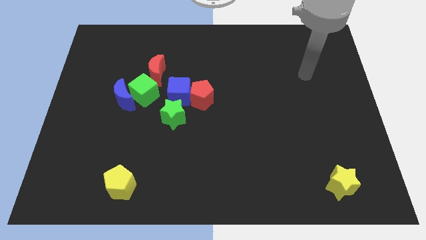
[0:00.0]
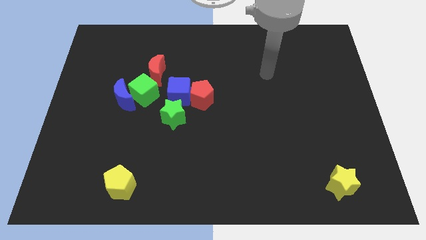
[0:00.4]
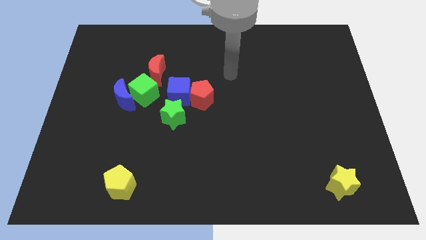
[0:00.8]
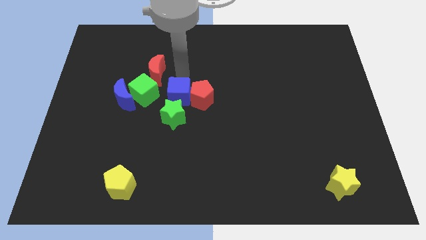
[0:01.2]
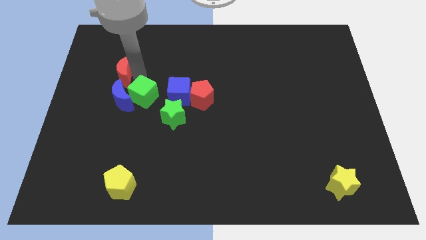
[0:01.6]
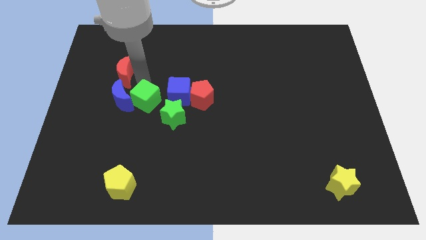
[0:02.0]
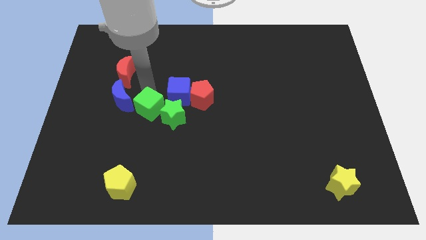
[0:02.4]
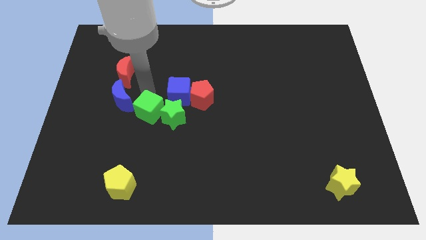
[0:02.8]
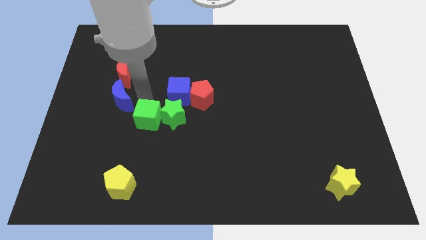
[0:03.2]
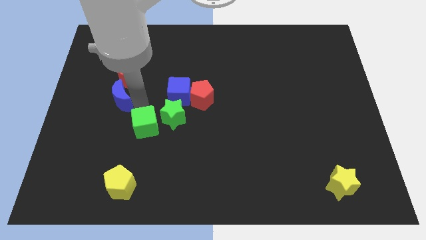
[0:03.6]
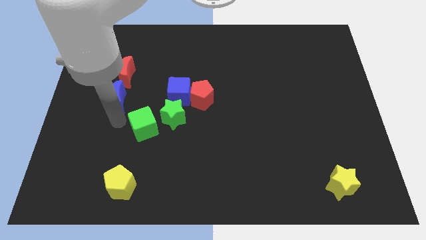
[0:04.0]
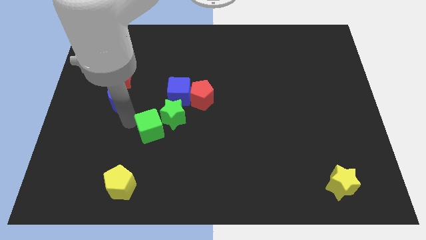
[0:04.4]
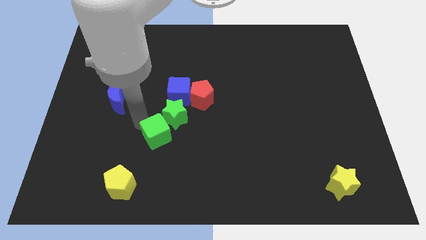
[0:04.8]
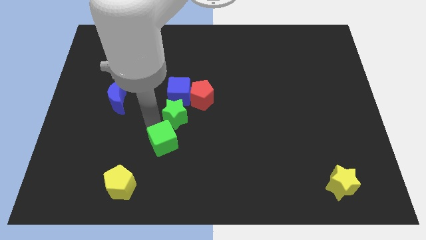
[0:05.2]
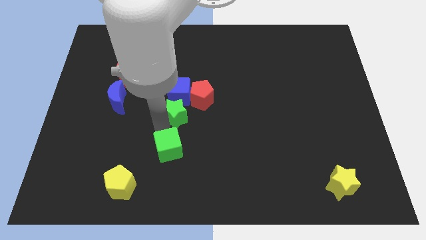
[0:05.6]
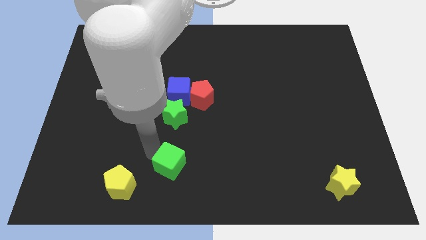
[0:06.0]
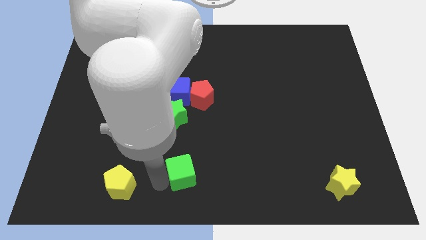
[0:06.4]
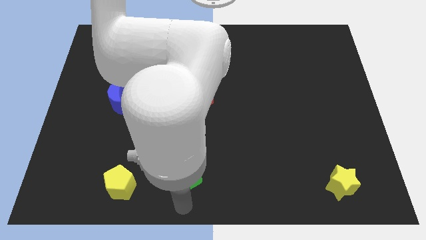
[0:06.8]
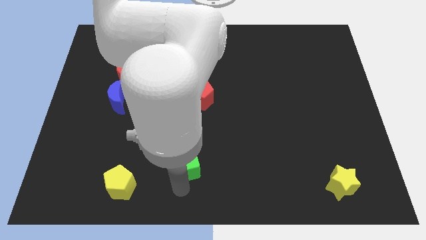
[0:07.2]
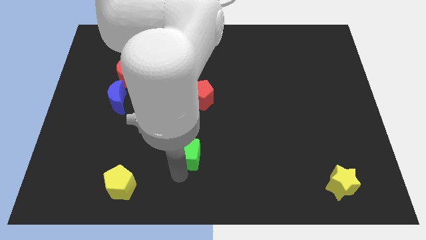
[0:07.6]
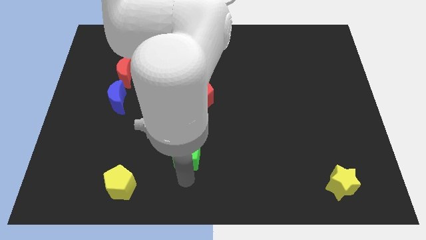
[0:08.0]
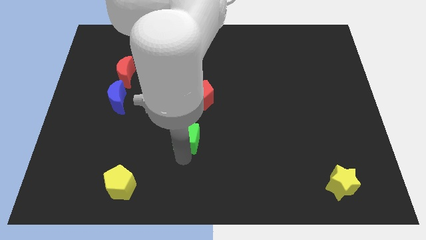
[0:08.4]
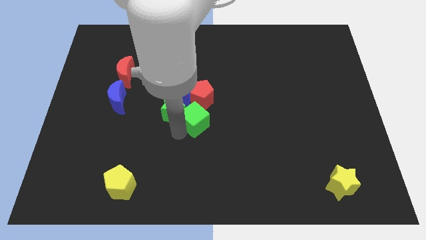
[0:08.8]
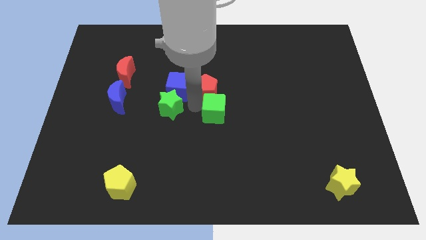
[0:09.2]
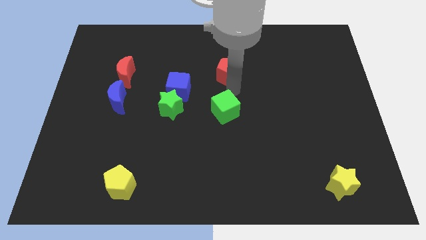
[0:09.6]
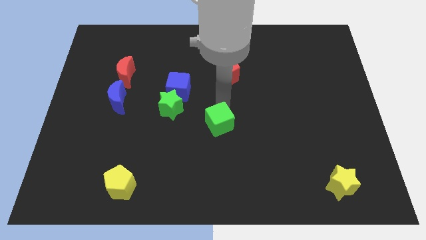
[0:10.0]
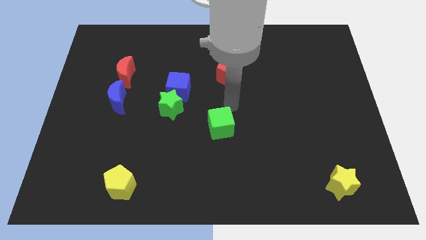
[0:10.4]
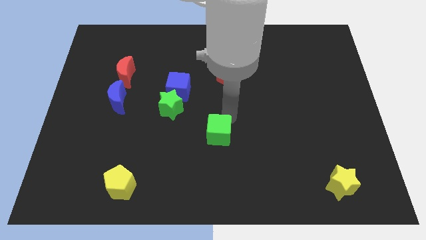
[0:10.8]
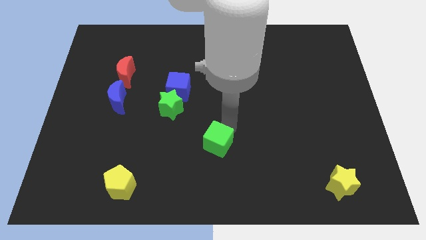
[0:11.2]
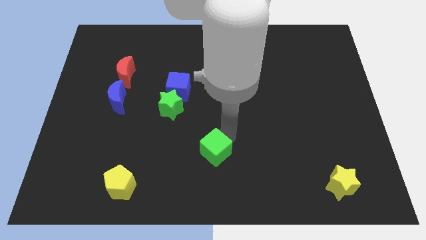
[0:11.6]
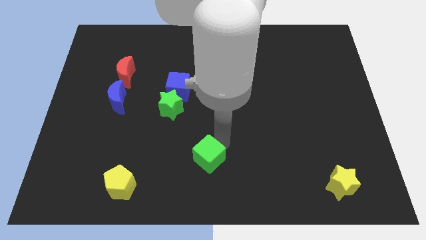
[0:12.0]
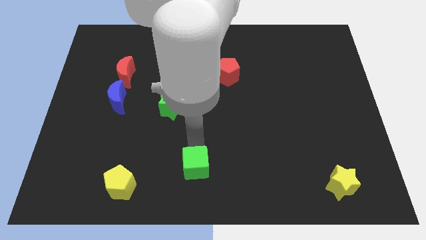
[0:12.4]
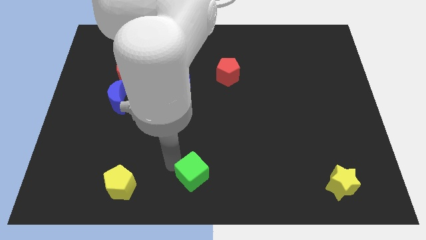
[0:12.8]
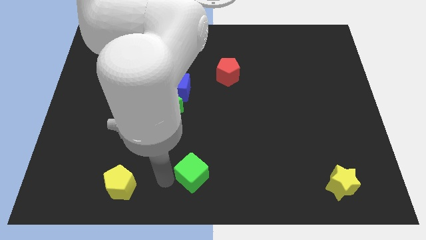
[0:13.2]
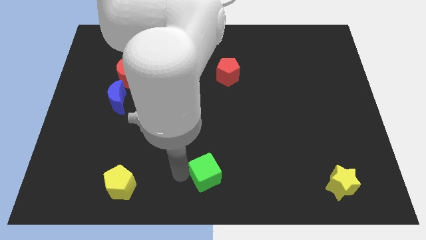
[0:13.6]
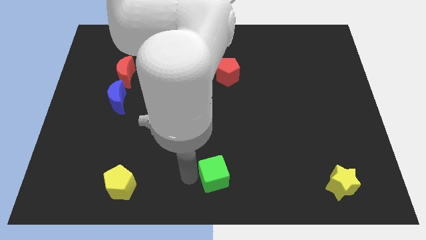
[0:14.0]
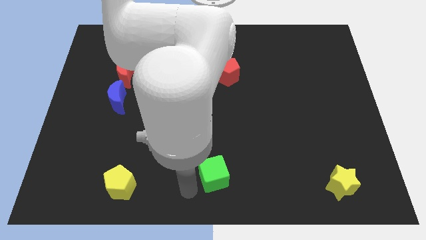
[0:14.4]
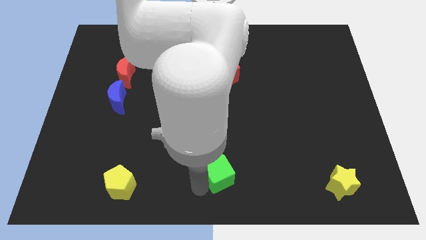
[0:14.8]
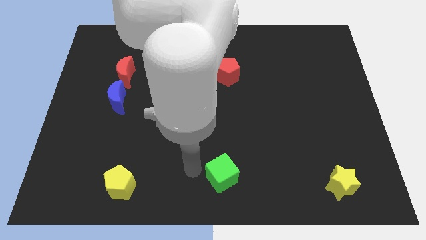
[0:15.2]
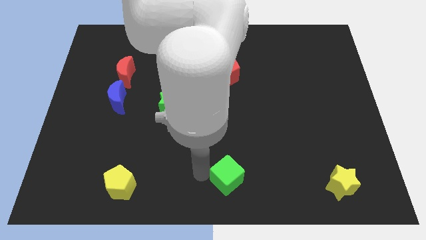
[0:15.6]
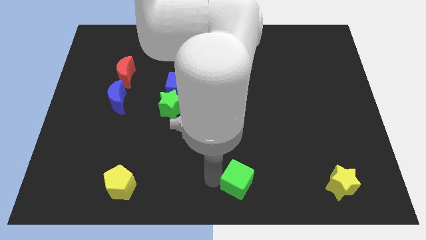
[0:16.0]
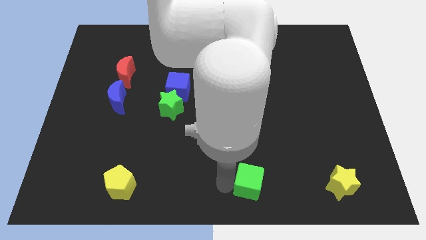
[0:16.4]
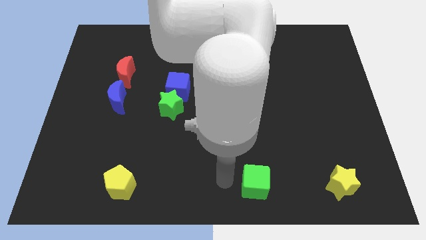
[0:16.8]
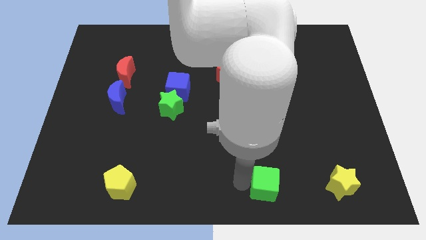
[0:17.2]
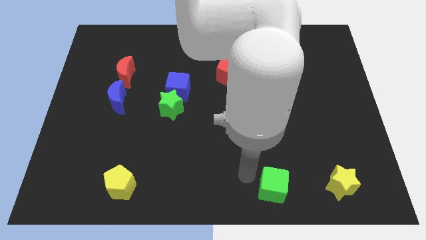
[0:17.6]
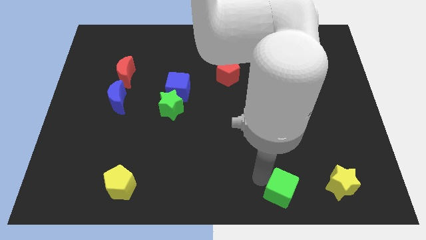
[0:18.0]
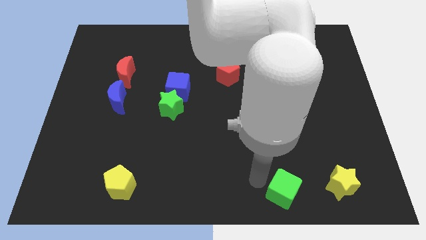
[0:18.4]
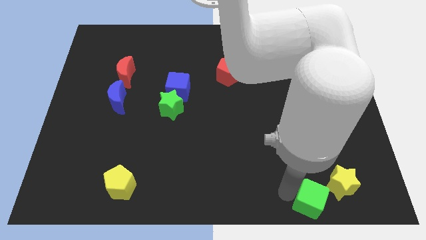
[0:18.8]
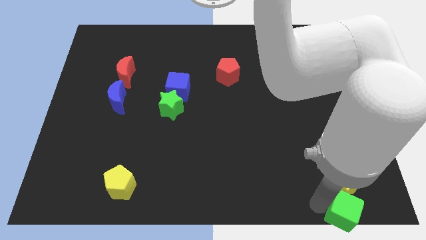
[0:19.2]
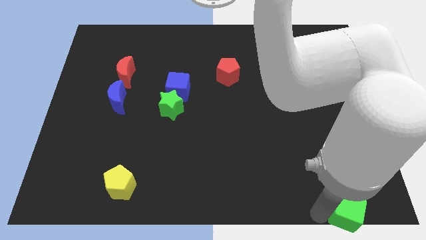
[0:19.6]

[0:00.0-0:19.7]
push the green cube to the bottom right of the board

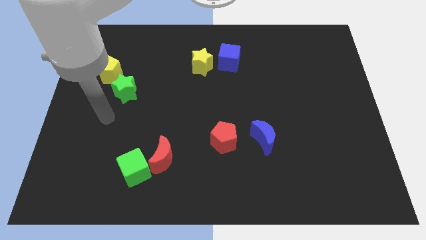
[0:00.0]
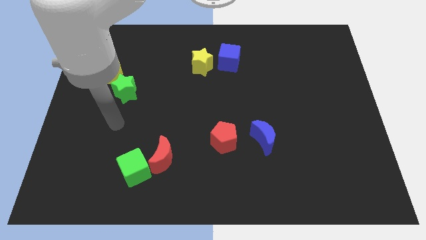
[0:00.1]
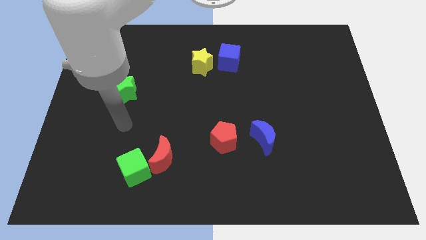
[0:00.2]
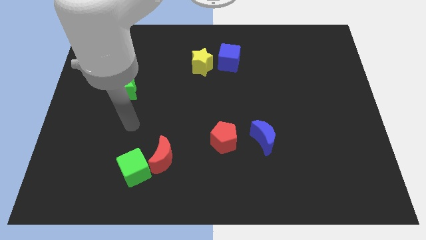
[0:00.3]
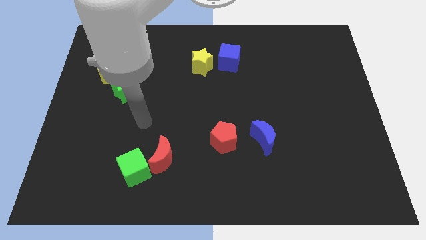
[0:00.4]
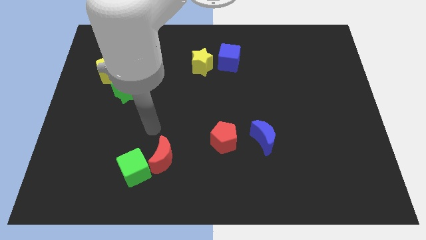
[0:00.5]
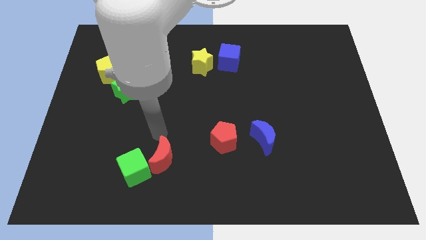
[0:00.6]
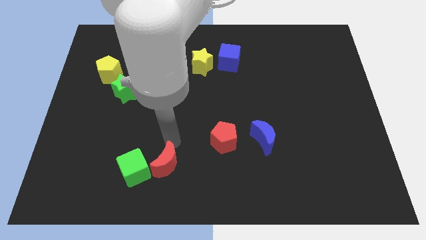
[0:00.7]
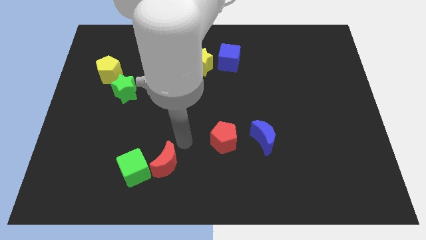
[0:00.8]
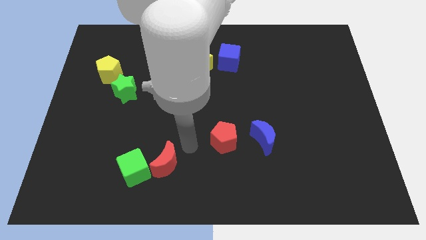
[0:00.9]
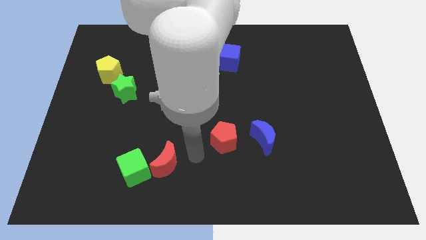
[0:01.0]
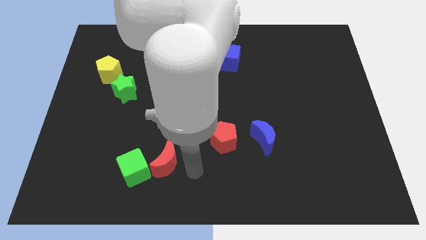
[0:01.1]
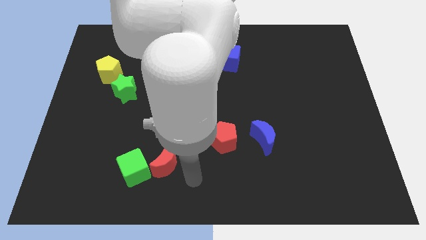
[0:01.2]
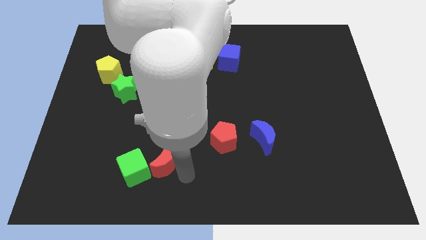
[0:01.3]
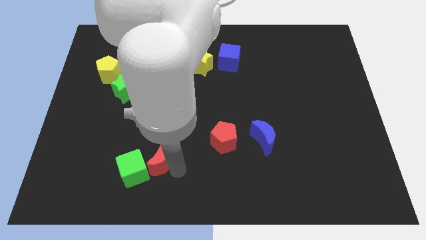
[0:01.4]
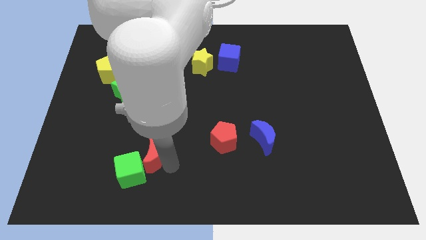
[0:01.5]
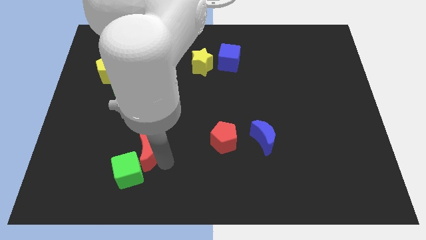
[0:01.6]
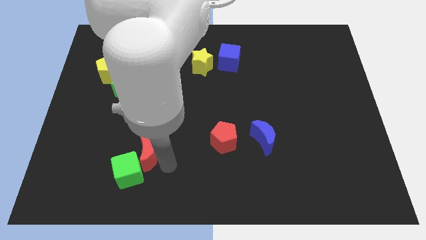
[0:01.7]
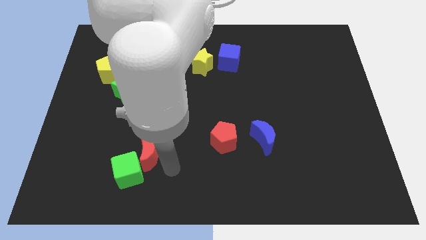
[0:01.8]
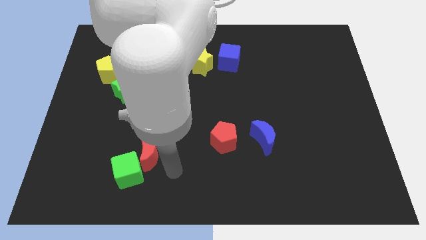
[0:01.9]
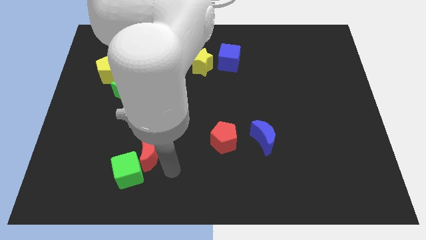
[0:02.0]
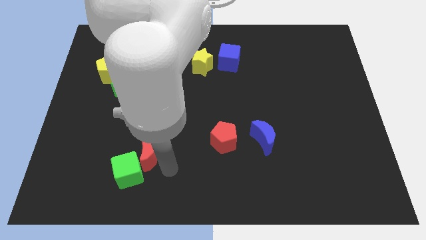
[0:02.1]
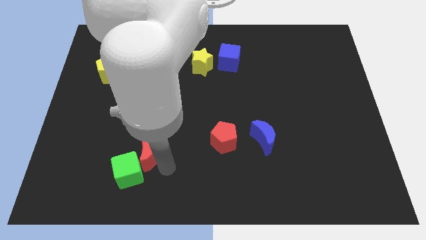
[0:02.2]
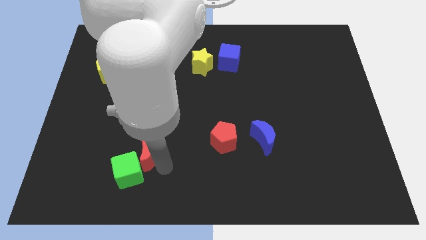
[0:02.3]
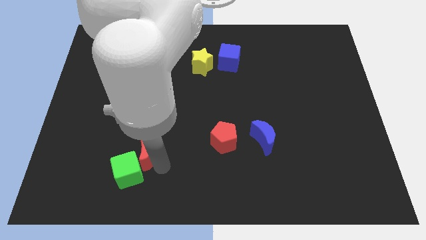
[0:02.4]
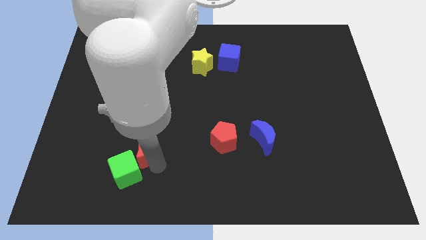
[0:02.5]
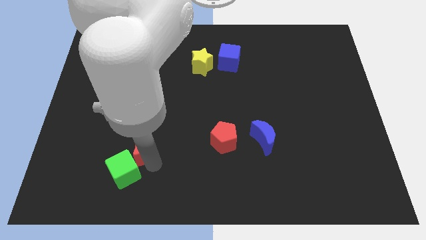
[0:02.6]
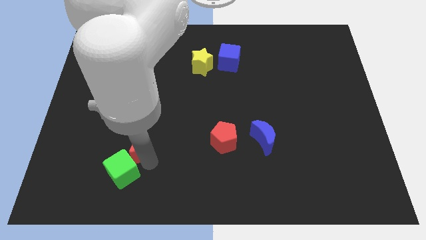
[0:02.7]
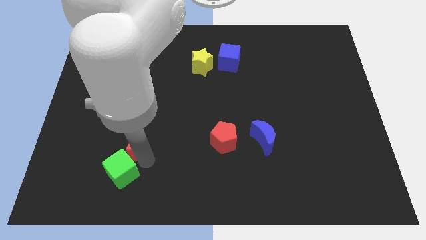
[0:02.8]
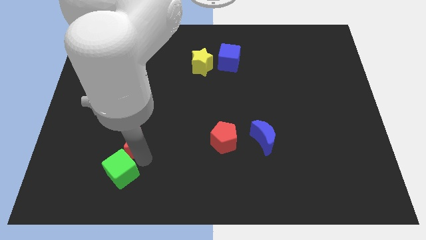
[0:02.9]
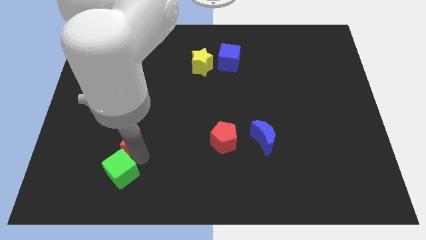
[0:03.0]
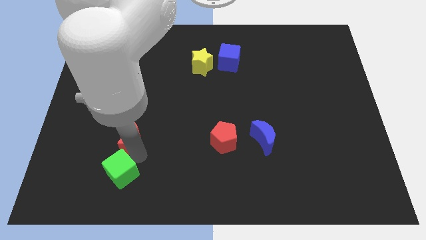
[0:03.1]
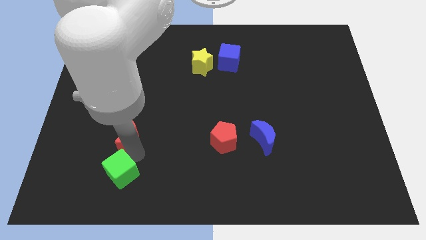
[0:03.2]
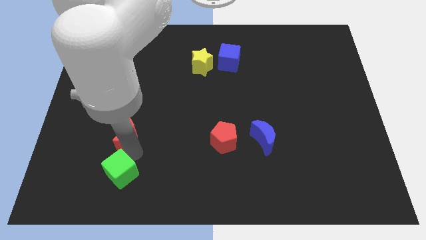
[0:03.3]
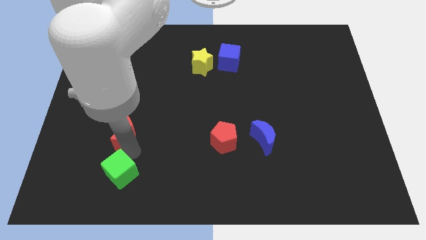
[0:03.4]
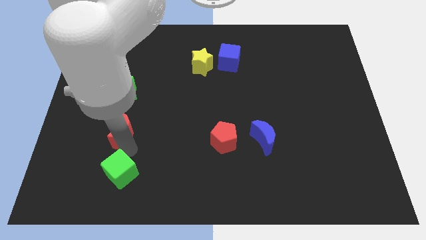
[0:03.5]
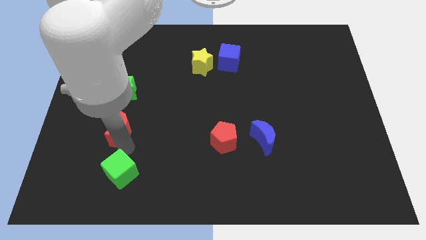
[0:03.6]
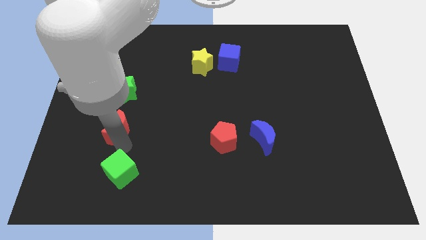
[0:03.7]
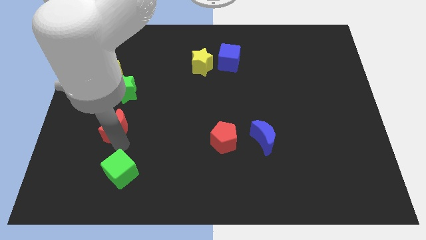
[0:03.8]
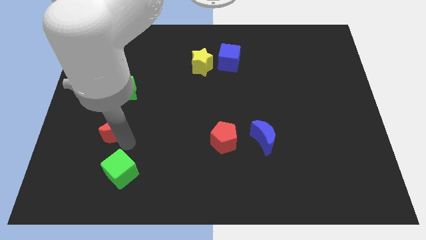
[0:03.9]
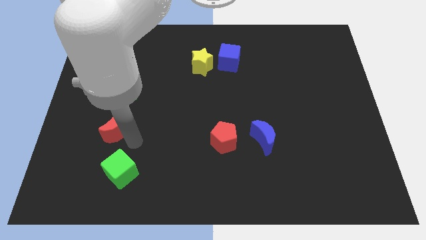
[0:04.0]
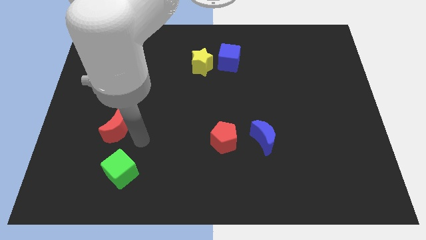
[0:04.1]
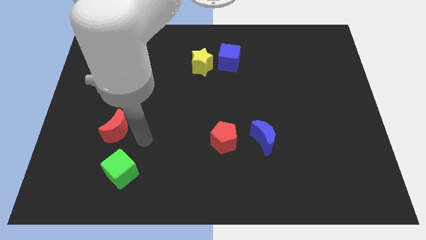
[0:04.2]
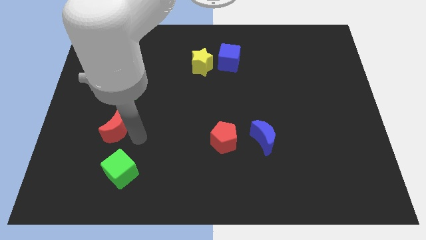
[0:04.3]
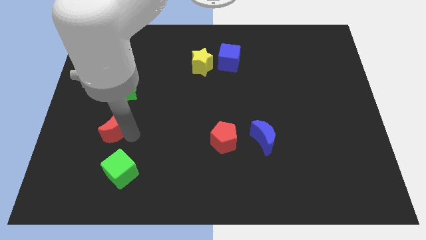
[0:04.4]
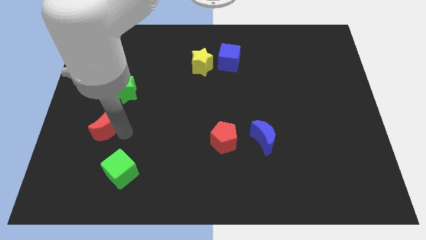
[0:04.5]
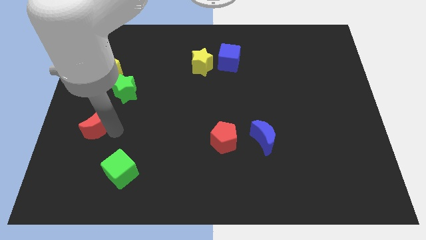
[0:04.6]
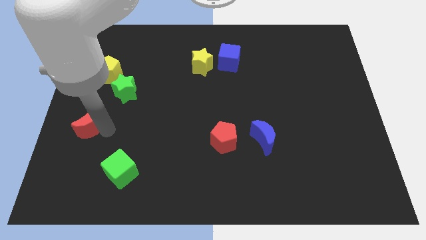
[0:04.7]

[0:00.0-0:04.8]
move the red moon to the left side of the board
